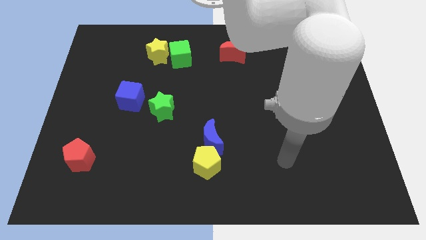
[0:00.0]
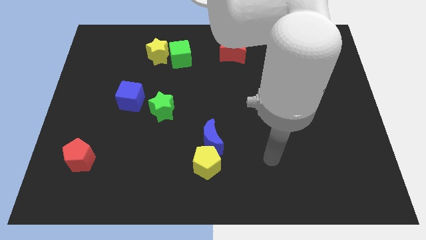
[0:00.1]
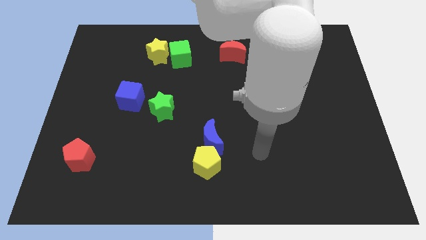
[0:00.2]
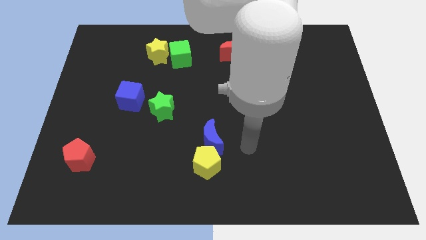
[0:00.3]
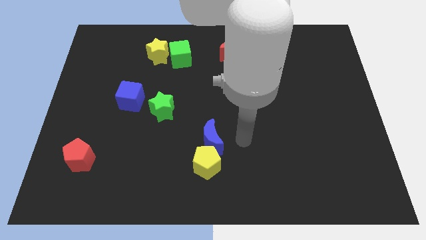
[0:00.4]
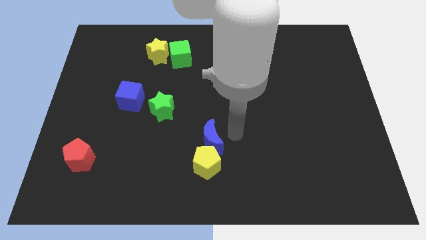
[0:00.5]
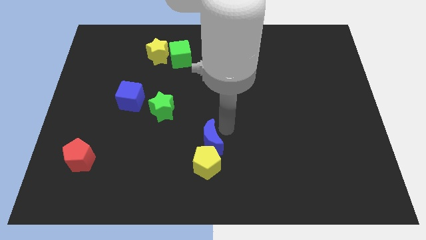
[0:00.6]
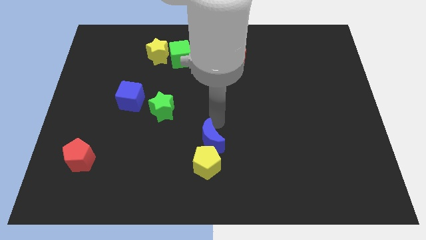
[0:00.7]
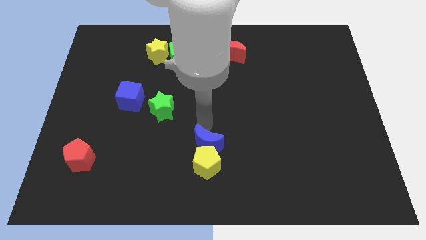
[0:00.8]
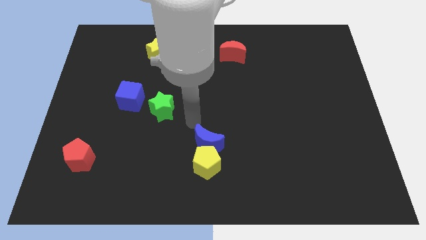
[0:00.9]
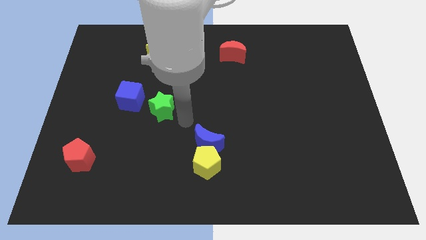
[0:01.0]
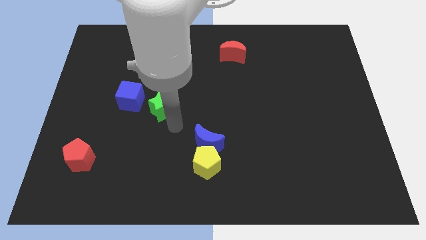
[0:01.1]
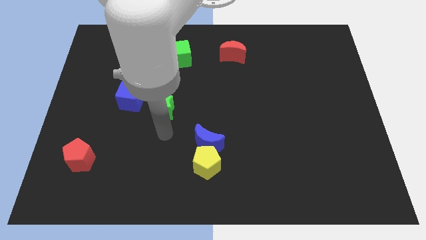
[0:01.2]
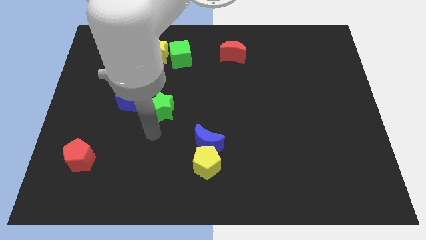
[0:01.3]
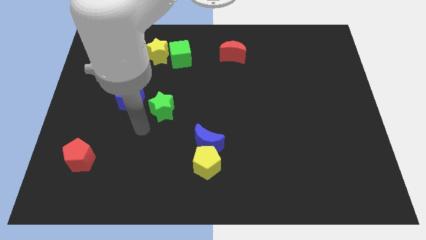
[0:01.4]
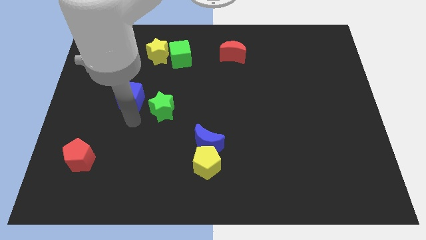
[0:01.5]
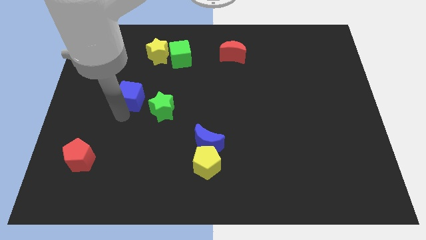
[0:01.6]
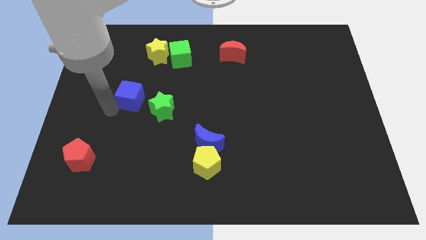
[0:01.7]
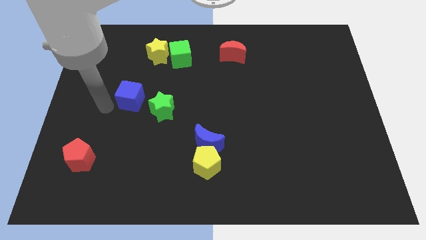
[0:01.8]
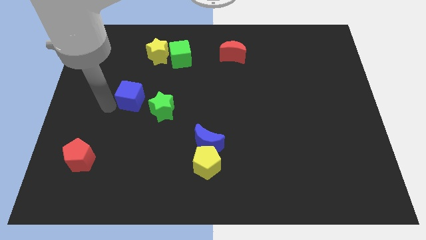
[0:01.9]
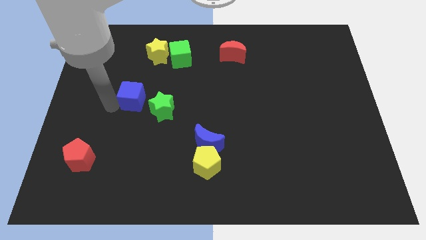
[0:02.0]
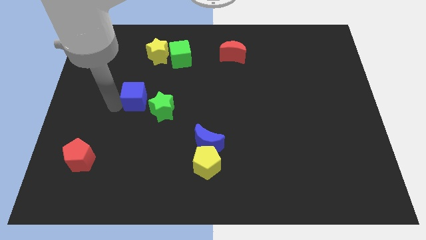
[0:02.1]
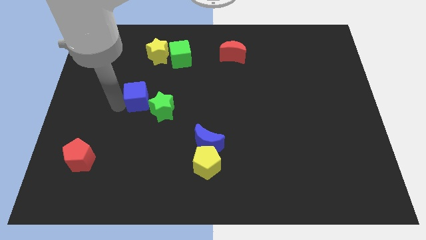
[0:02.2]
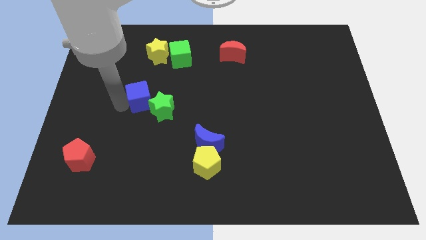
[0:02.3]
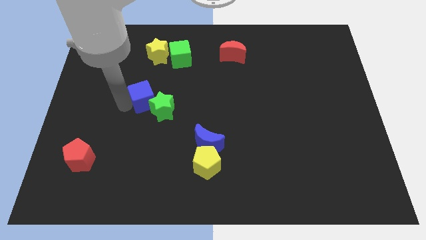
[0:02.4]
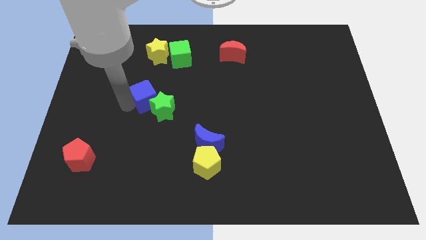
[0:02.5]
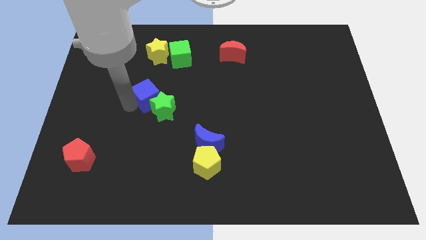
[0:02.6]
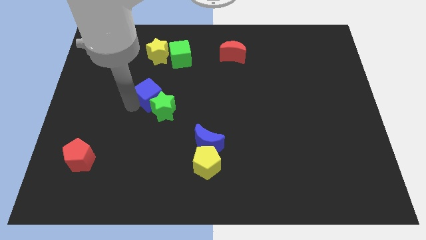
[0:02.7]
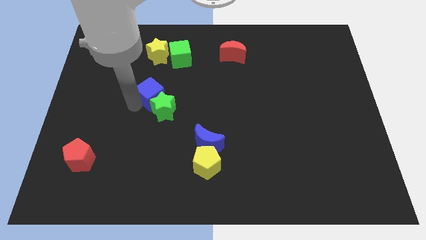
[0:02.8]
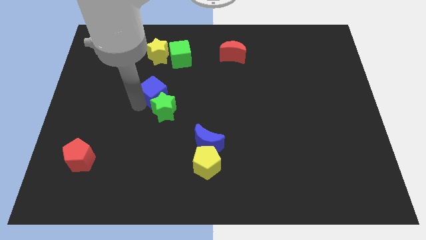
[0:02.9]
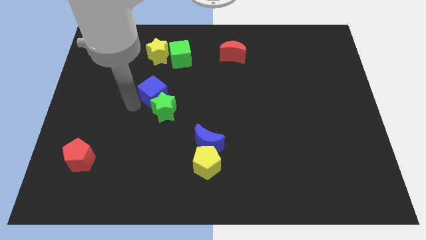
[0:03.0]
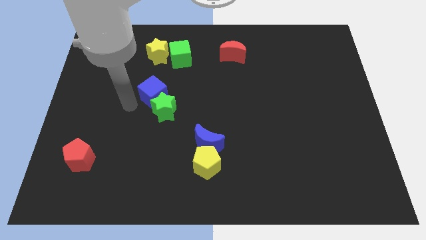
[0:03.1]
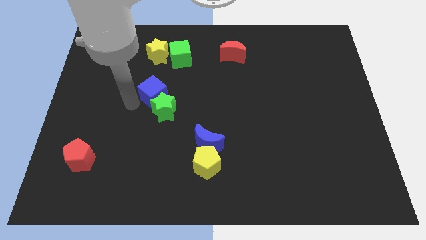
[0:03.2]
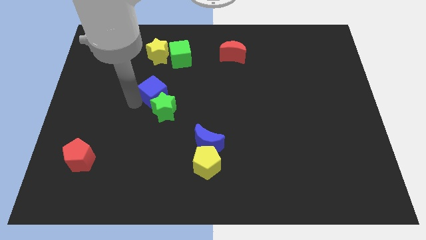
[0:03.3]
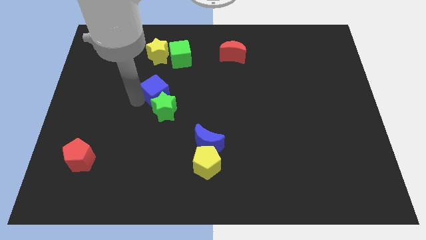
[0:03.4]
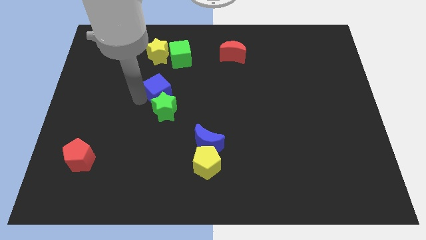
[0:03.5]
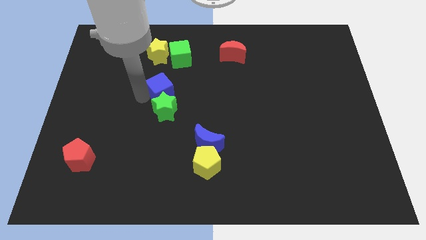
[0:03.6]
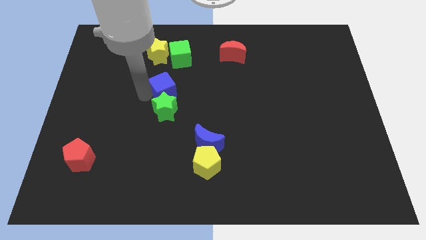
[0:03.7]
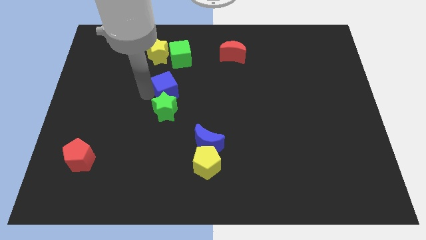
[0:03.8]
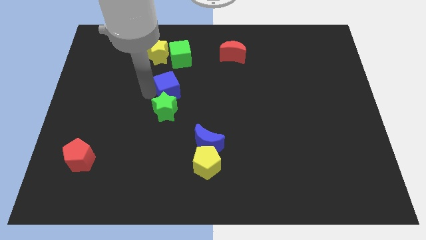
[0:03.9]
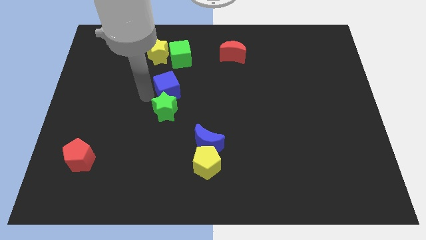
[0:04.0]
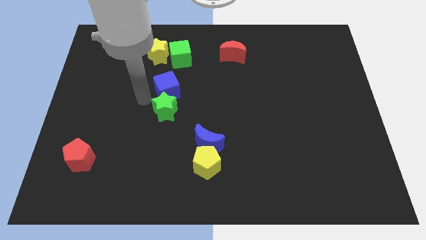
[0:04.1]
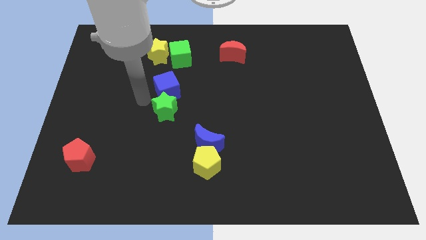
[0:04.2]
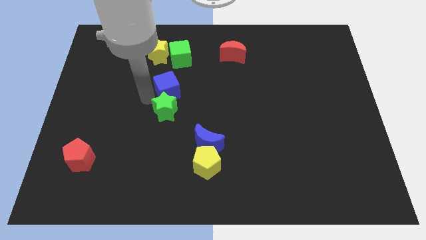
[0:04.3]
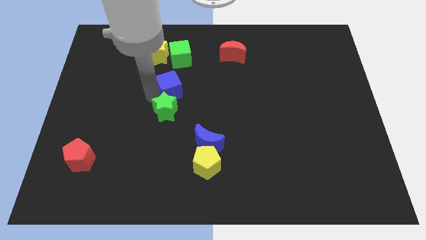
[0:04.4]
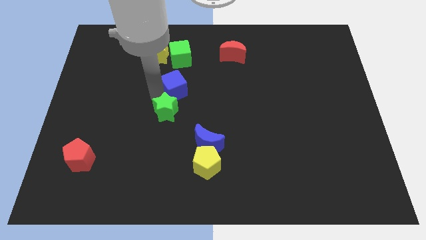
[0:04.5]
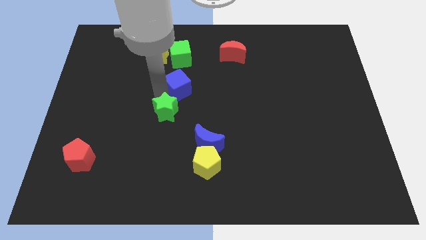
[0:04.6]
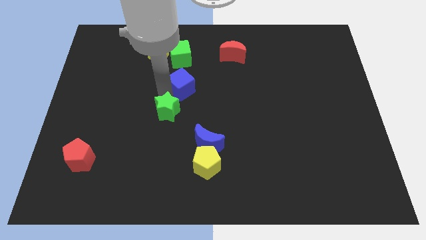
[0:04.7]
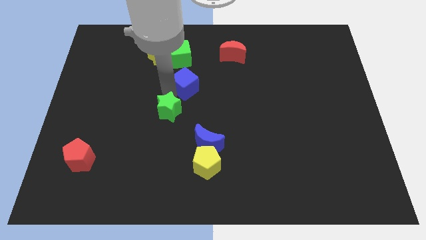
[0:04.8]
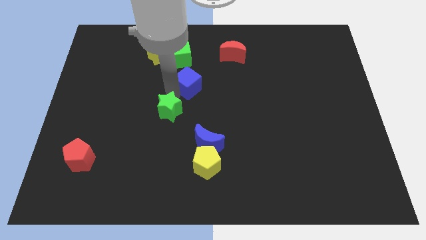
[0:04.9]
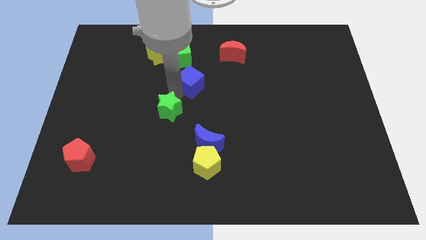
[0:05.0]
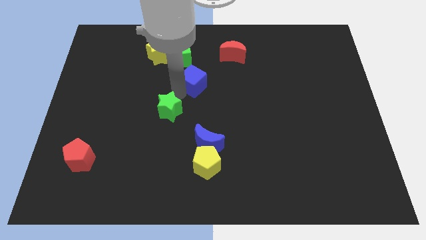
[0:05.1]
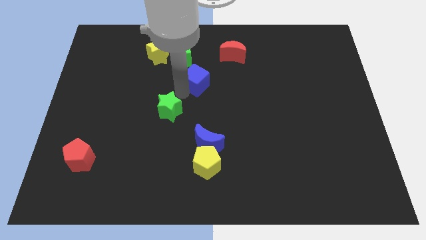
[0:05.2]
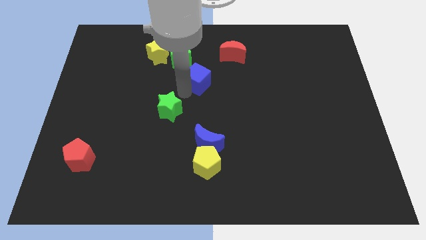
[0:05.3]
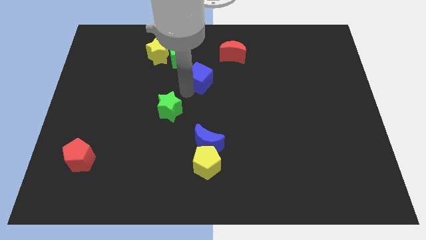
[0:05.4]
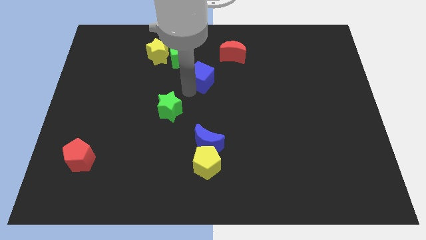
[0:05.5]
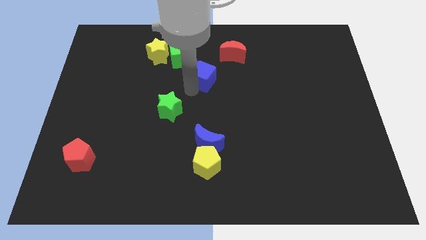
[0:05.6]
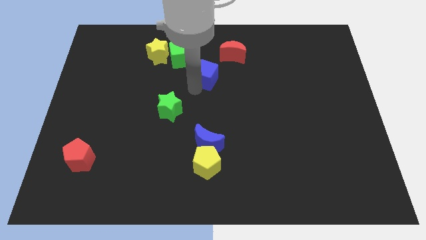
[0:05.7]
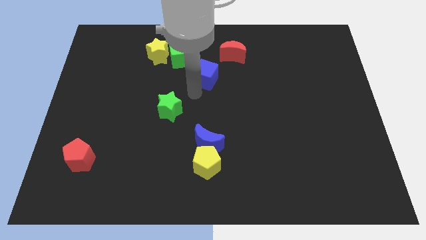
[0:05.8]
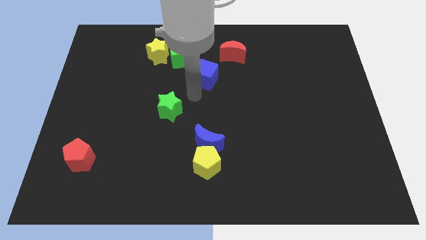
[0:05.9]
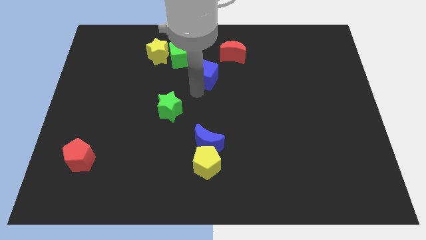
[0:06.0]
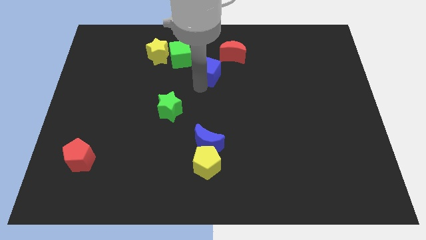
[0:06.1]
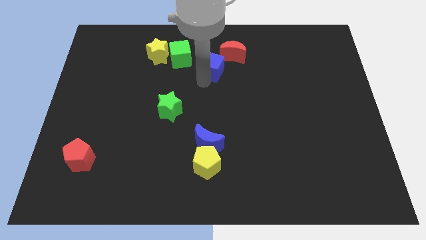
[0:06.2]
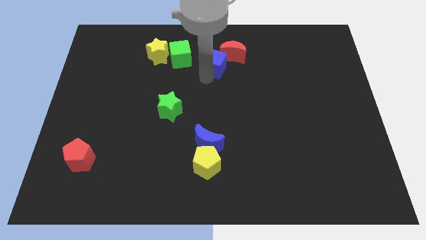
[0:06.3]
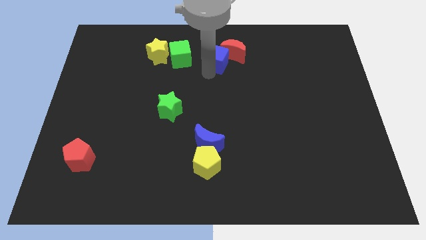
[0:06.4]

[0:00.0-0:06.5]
move the blue cube towards the red moon

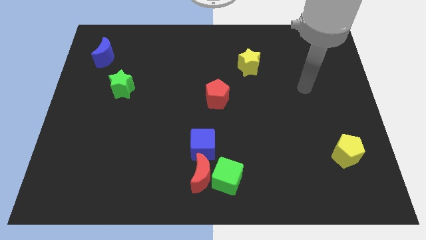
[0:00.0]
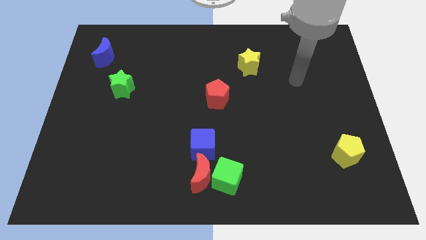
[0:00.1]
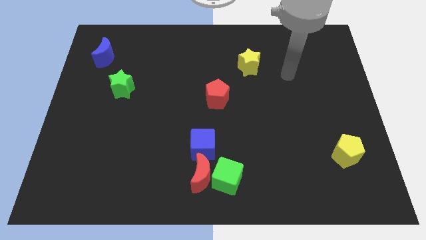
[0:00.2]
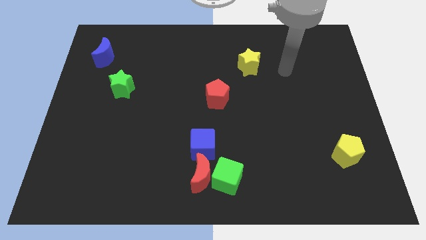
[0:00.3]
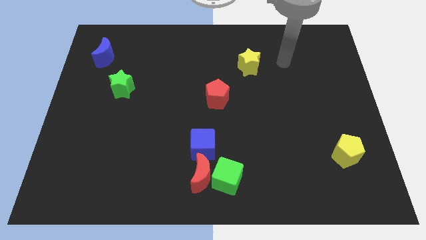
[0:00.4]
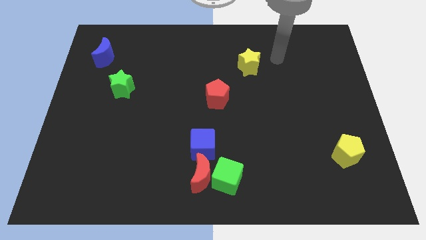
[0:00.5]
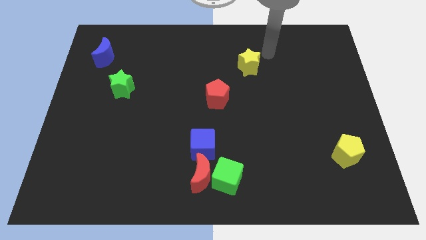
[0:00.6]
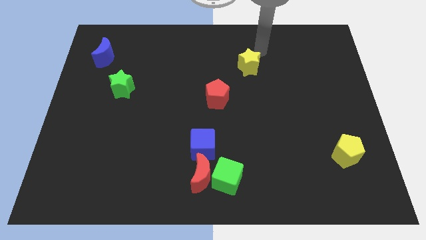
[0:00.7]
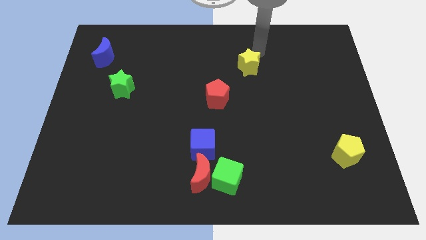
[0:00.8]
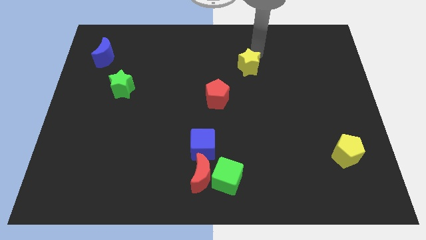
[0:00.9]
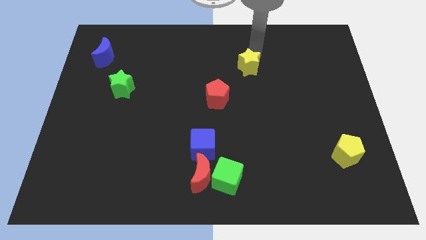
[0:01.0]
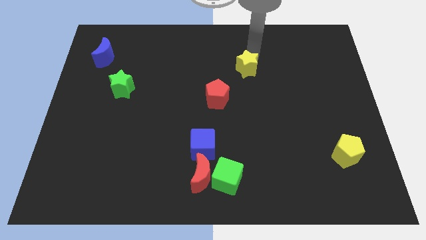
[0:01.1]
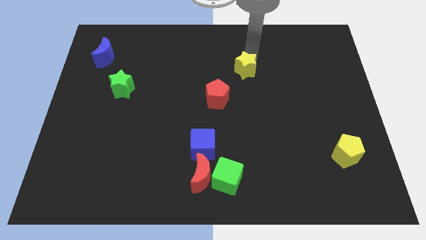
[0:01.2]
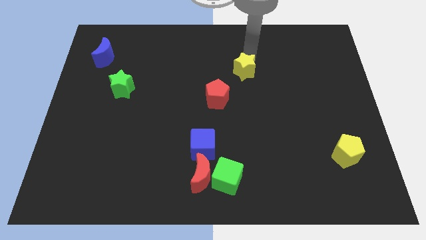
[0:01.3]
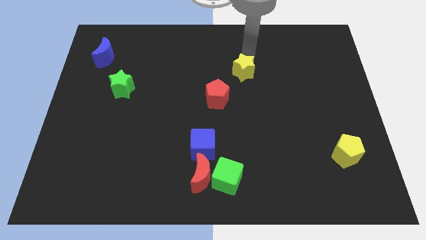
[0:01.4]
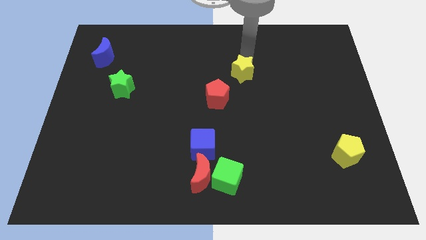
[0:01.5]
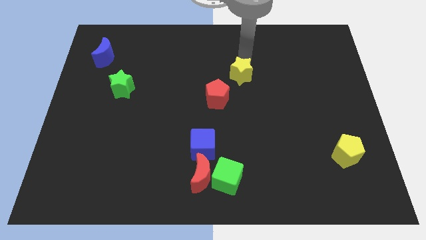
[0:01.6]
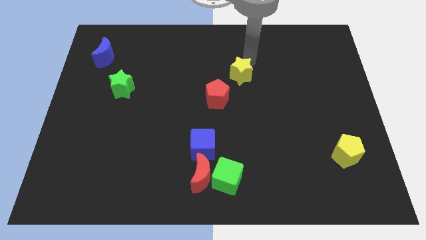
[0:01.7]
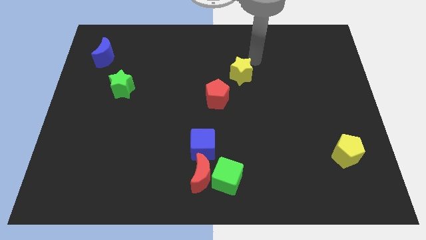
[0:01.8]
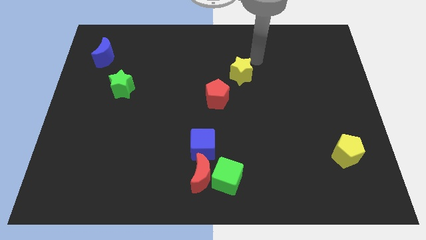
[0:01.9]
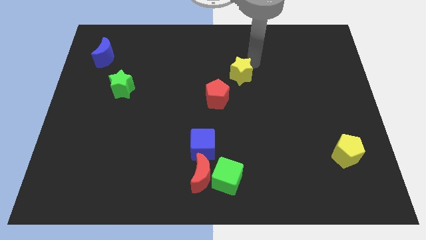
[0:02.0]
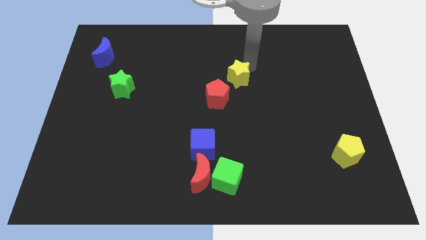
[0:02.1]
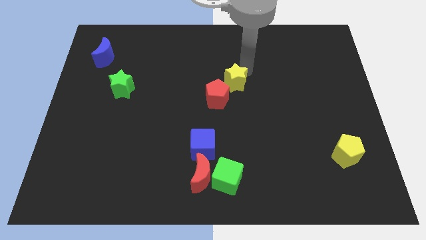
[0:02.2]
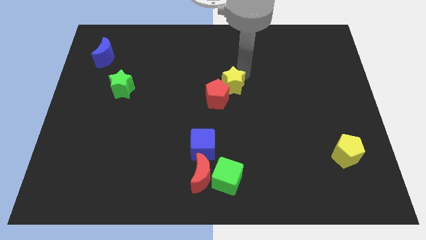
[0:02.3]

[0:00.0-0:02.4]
move the yellow star to the red pentagon
